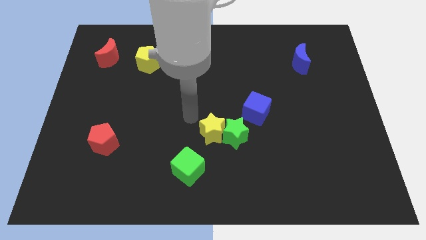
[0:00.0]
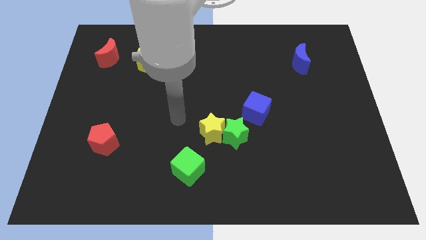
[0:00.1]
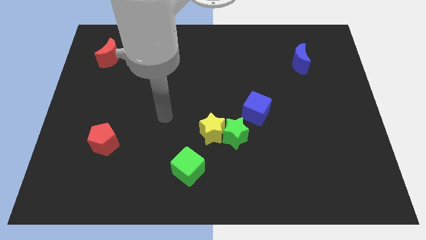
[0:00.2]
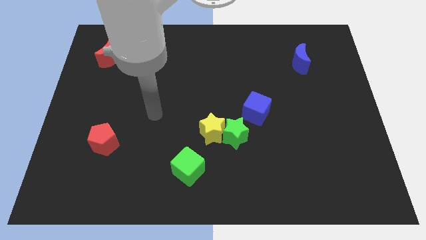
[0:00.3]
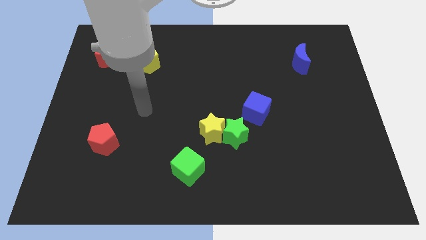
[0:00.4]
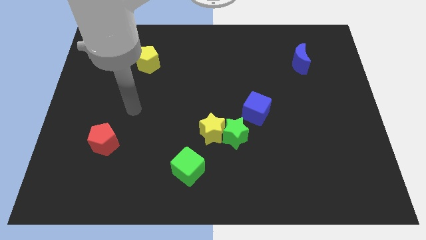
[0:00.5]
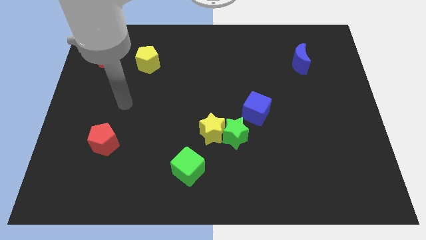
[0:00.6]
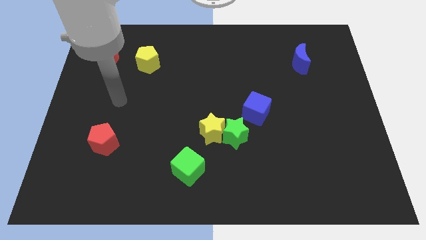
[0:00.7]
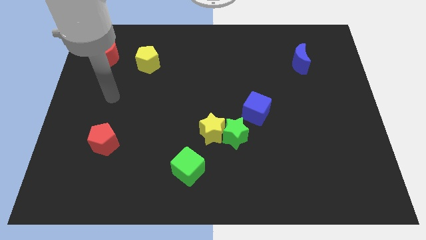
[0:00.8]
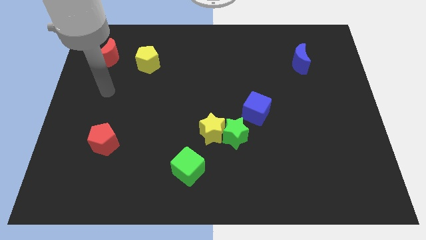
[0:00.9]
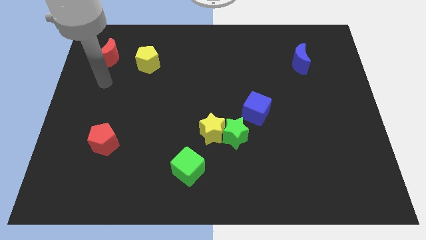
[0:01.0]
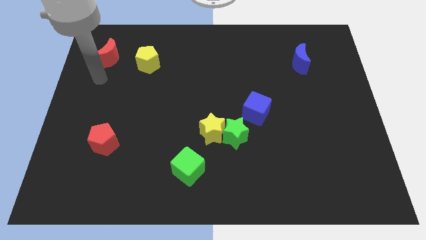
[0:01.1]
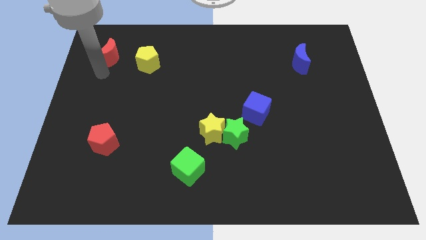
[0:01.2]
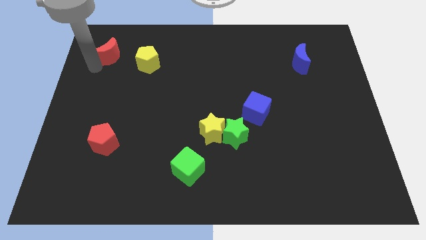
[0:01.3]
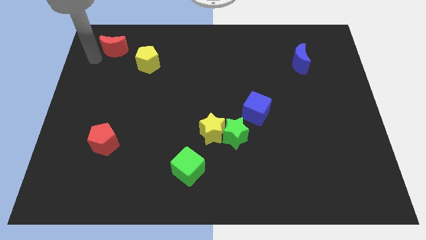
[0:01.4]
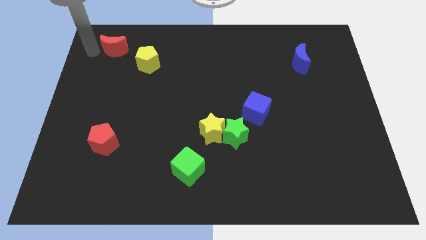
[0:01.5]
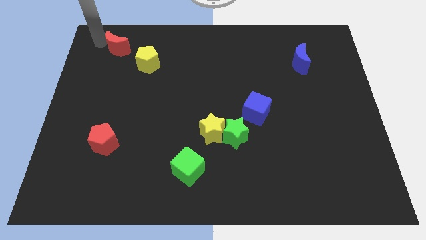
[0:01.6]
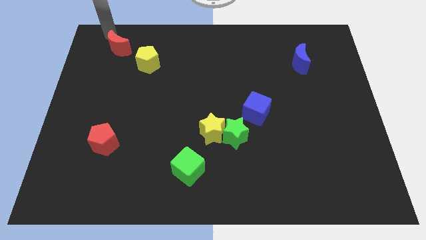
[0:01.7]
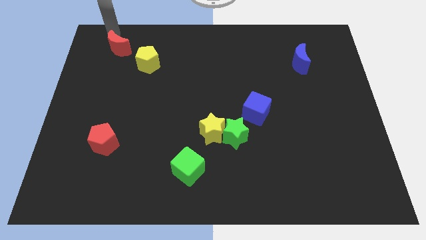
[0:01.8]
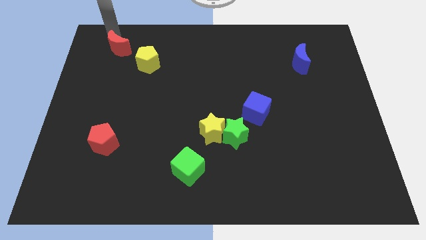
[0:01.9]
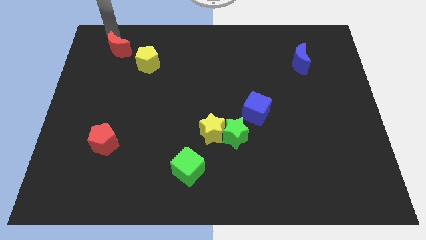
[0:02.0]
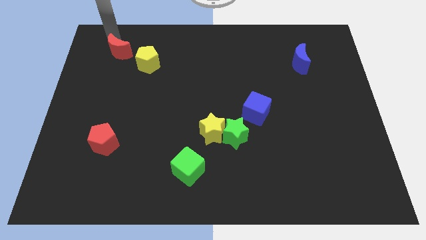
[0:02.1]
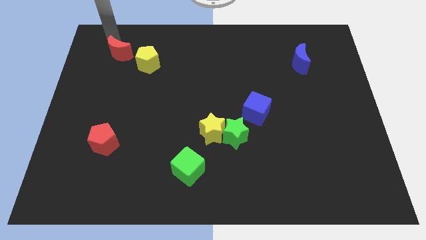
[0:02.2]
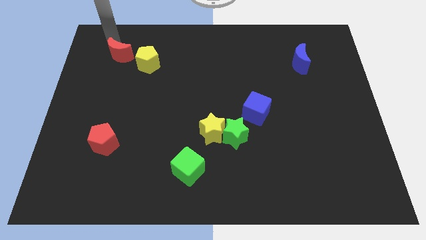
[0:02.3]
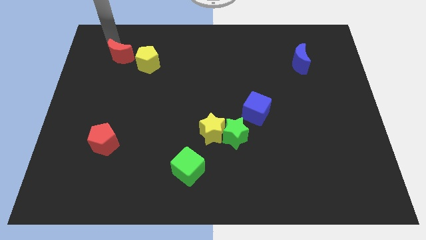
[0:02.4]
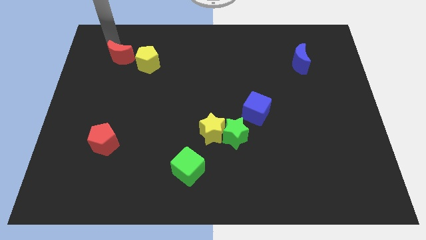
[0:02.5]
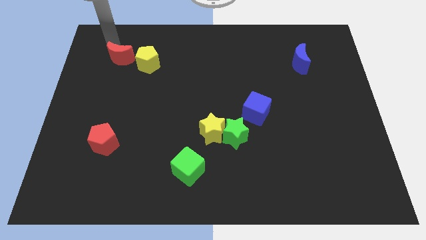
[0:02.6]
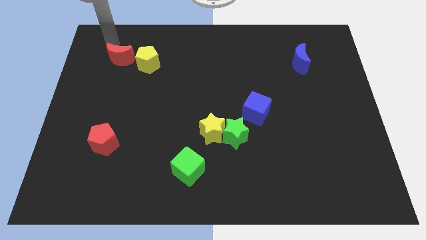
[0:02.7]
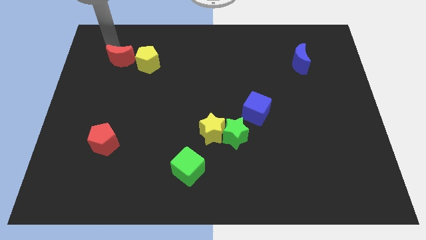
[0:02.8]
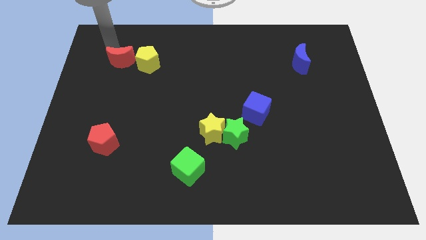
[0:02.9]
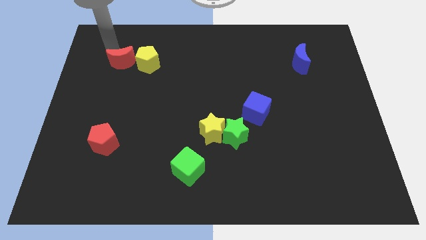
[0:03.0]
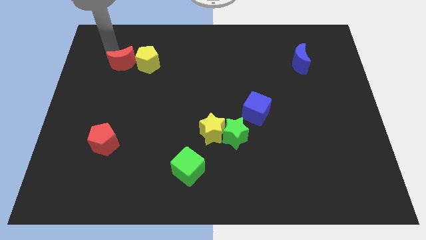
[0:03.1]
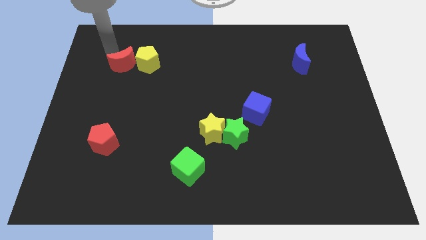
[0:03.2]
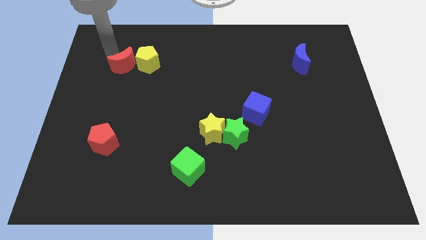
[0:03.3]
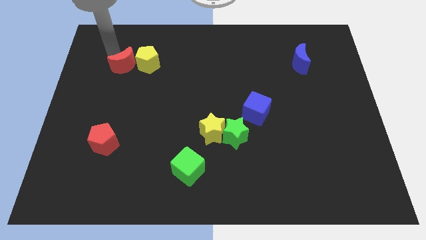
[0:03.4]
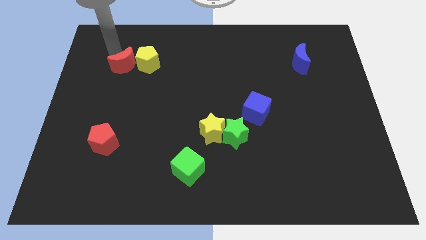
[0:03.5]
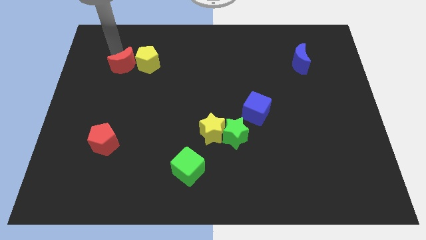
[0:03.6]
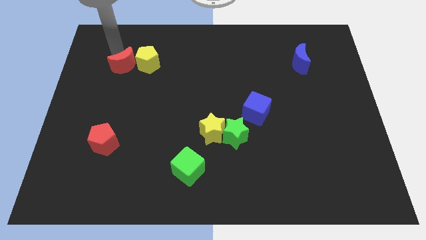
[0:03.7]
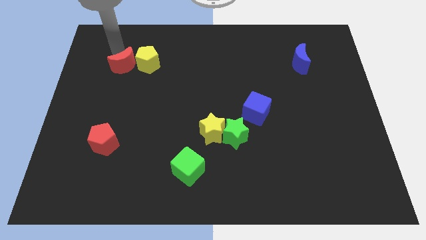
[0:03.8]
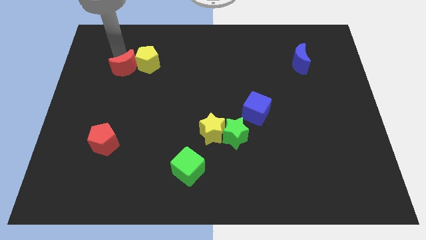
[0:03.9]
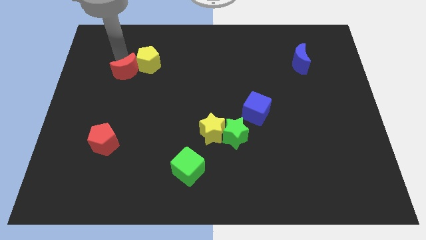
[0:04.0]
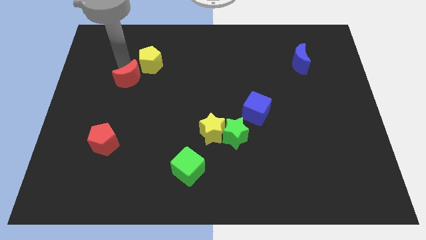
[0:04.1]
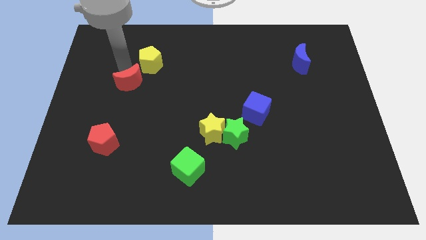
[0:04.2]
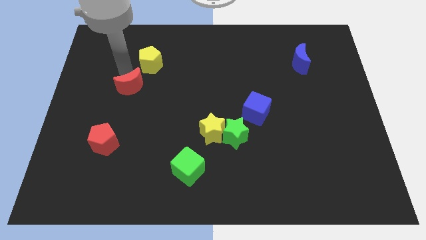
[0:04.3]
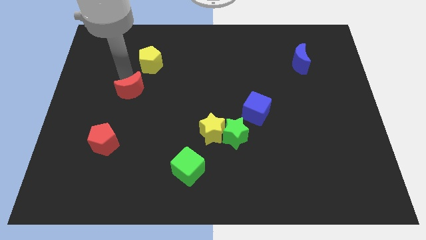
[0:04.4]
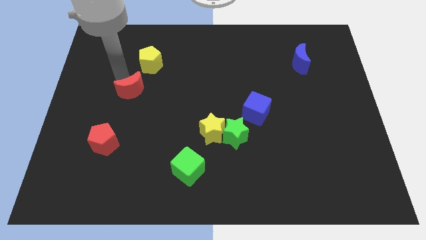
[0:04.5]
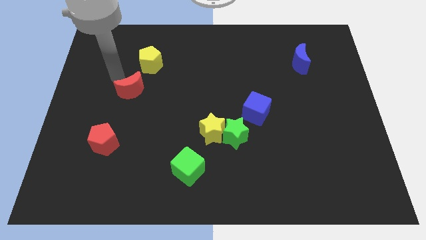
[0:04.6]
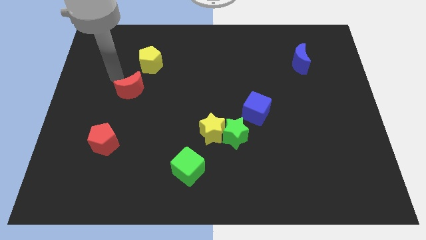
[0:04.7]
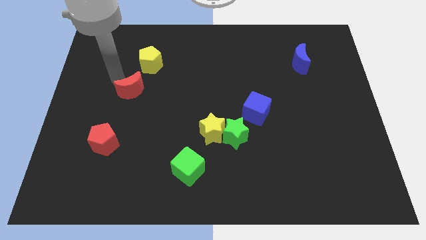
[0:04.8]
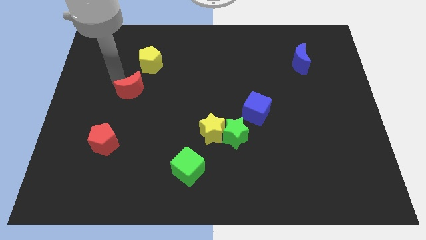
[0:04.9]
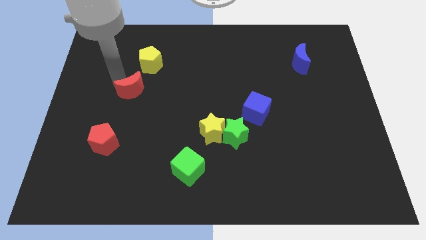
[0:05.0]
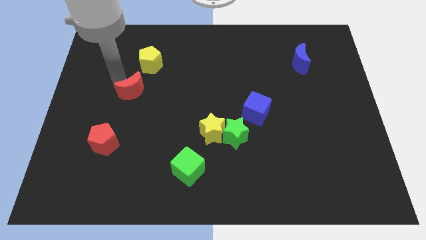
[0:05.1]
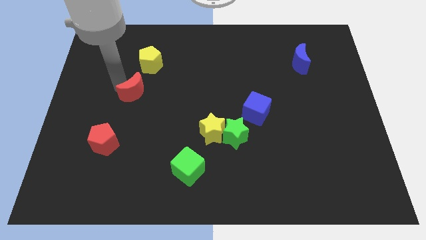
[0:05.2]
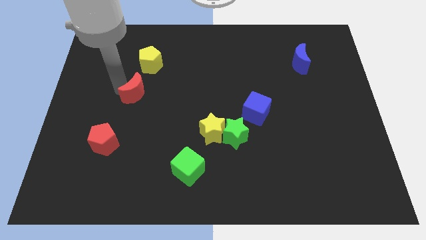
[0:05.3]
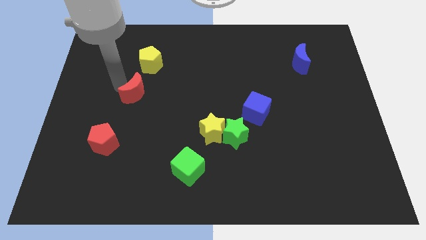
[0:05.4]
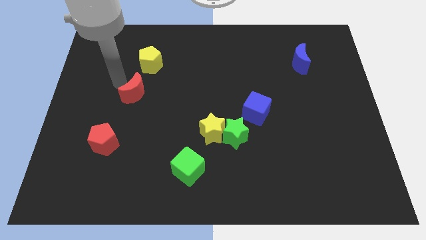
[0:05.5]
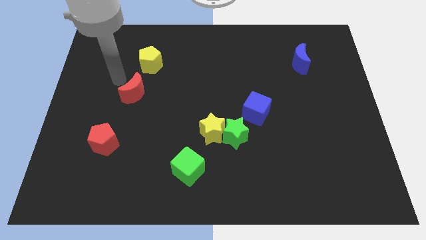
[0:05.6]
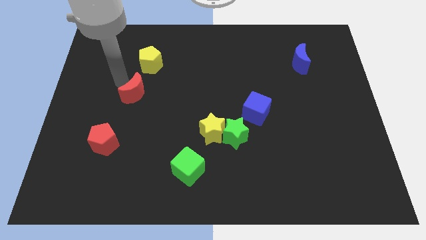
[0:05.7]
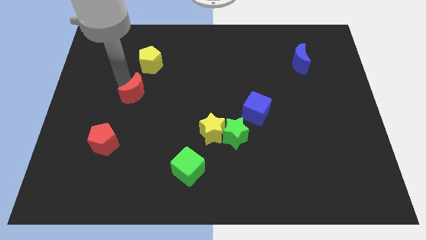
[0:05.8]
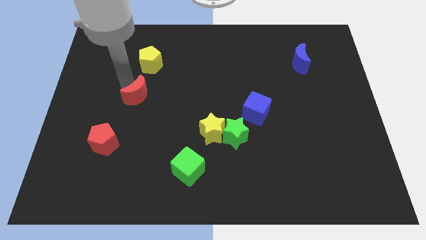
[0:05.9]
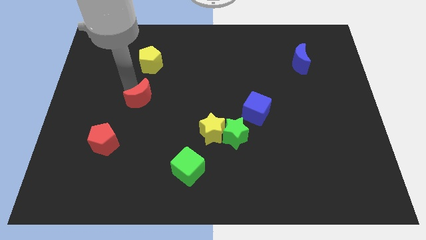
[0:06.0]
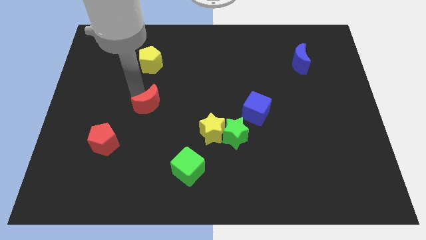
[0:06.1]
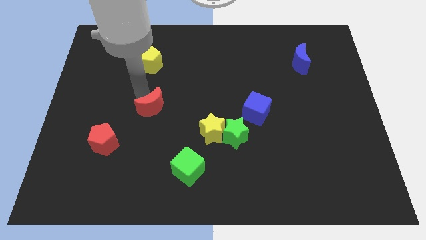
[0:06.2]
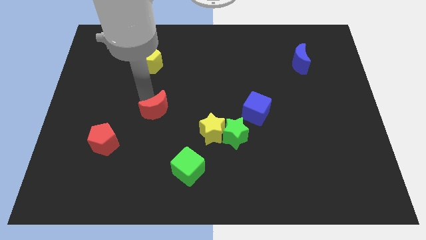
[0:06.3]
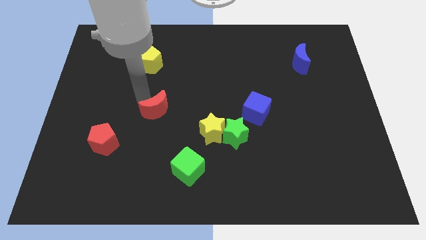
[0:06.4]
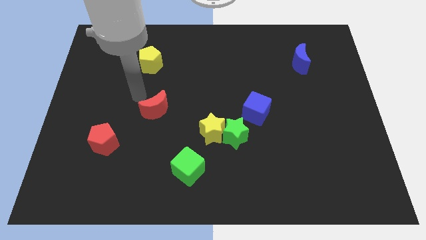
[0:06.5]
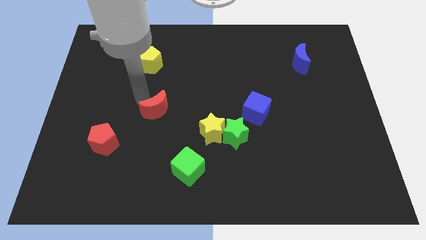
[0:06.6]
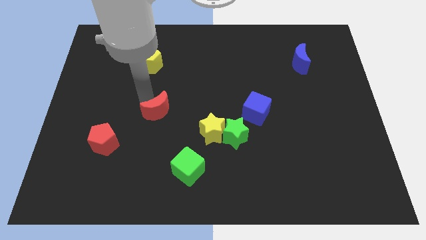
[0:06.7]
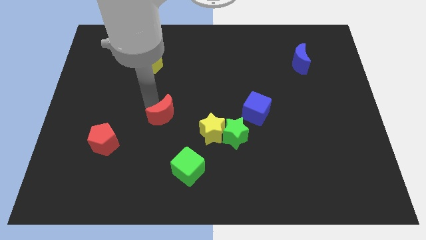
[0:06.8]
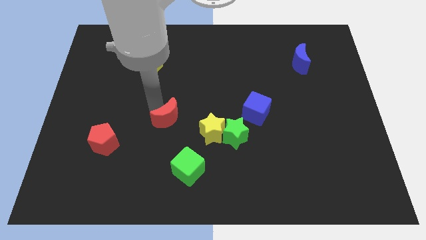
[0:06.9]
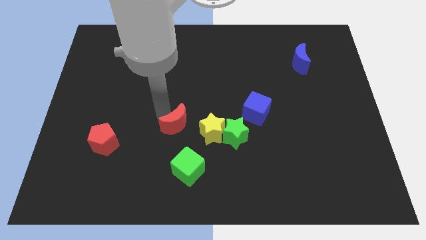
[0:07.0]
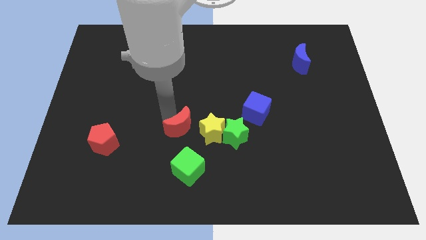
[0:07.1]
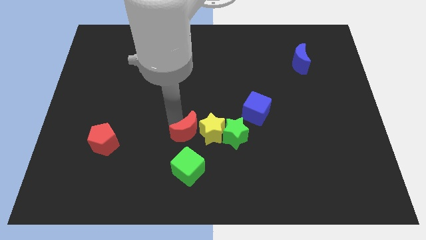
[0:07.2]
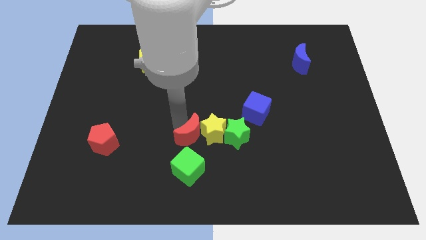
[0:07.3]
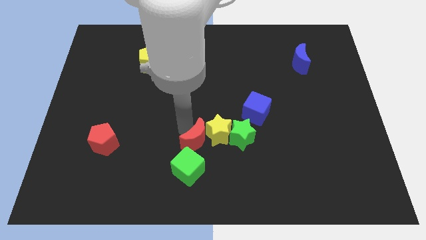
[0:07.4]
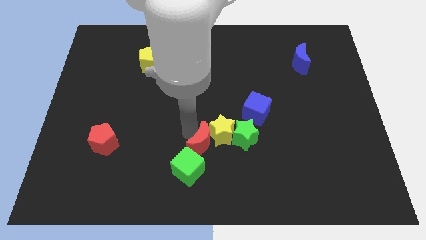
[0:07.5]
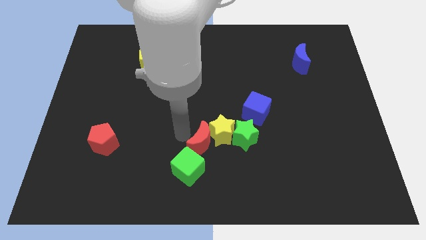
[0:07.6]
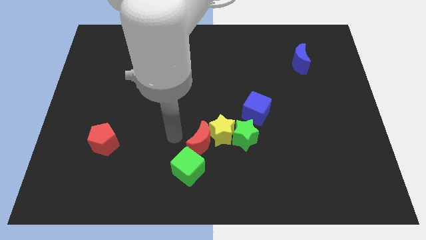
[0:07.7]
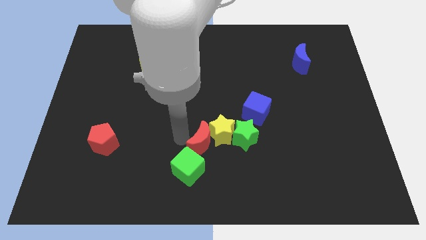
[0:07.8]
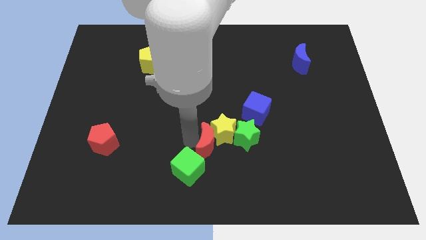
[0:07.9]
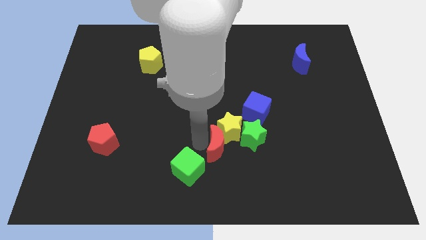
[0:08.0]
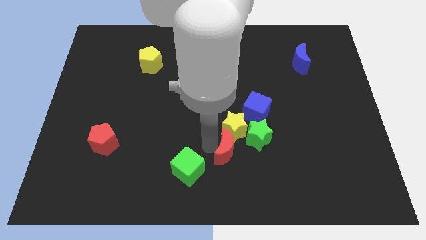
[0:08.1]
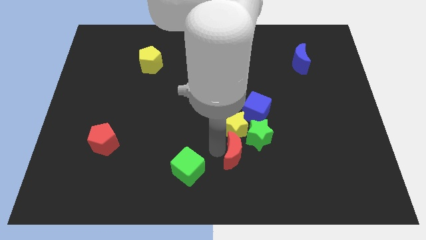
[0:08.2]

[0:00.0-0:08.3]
slide the red moon to the bottom right side of the yellow star
